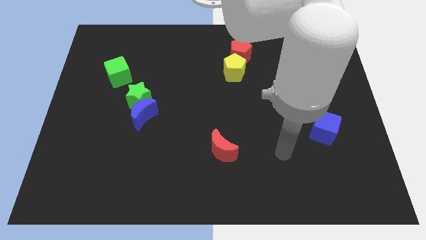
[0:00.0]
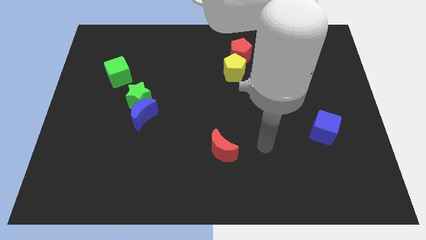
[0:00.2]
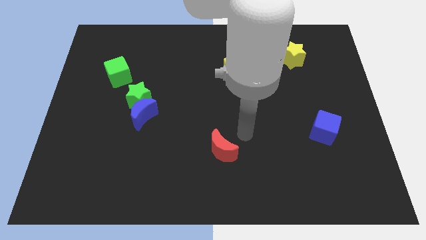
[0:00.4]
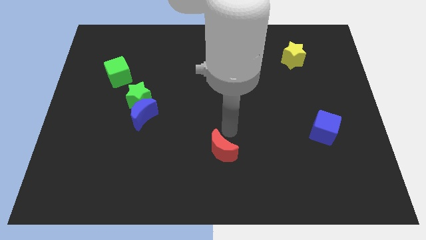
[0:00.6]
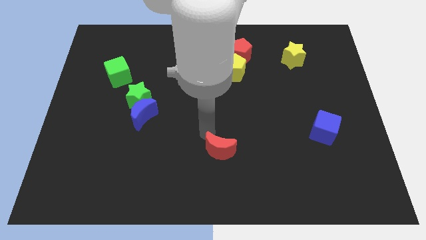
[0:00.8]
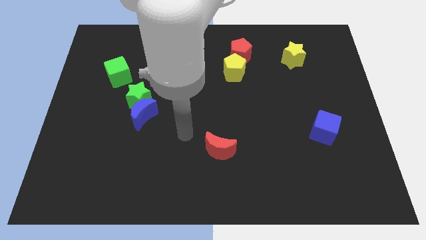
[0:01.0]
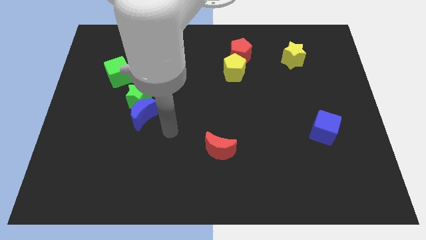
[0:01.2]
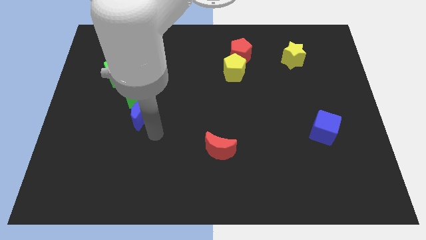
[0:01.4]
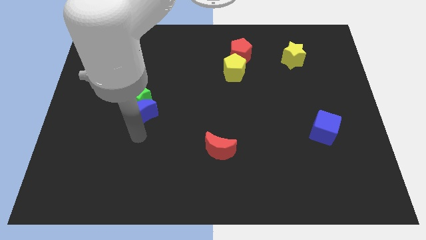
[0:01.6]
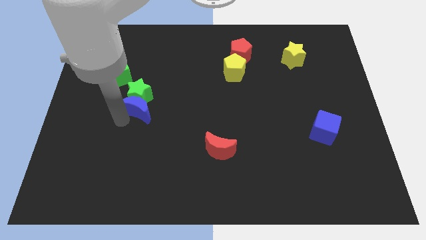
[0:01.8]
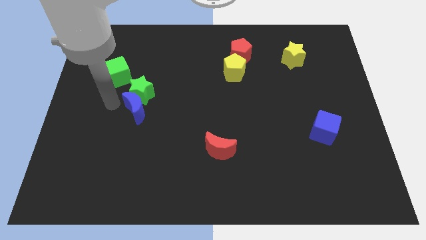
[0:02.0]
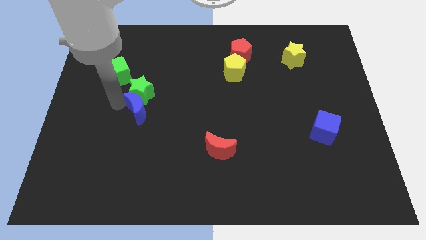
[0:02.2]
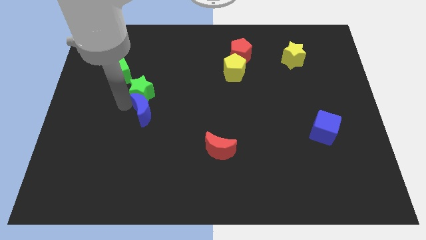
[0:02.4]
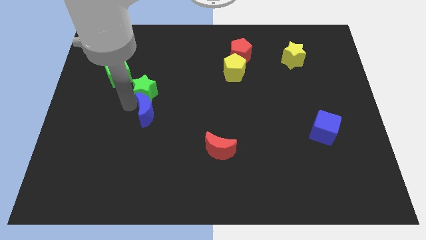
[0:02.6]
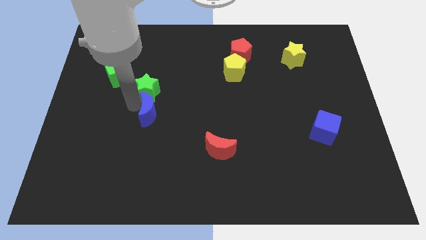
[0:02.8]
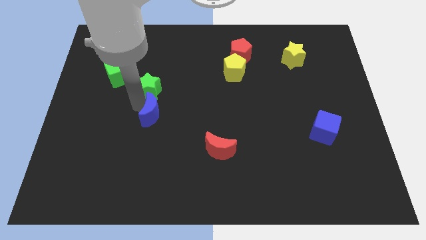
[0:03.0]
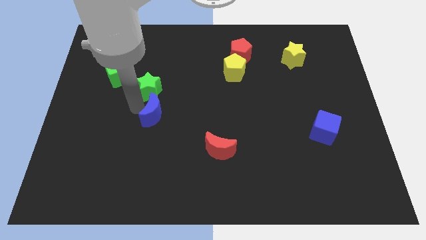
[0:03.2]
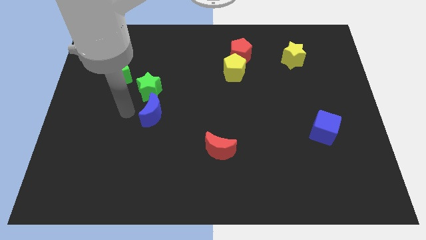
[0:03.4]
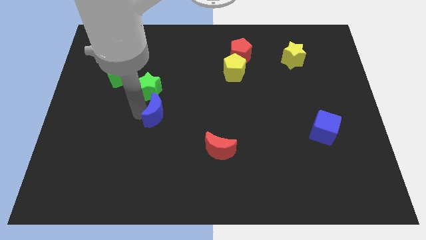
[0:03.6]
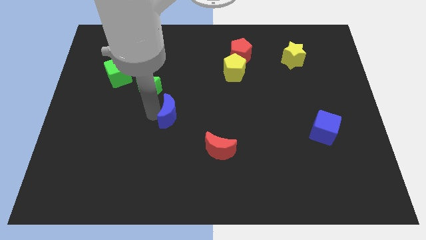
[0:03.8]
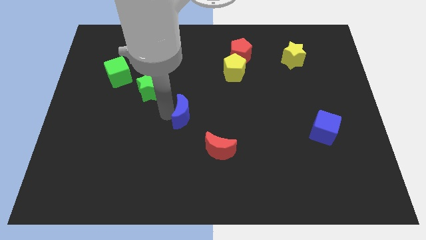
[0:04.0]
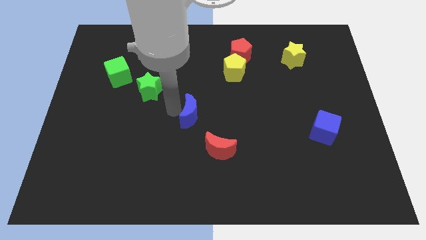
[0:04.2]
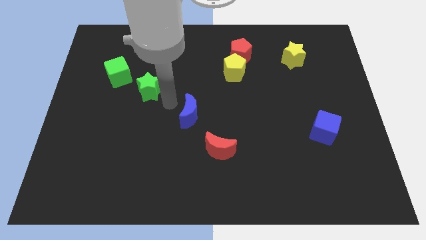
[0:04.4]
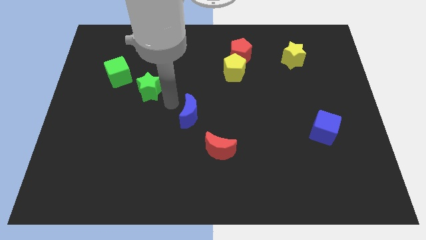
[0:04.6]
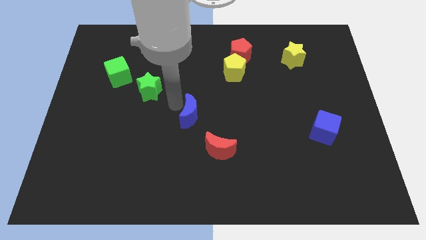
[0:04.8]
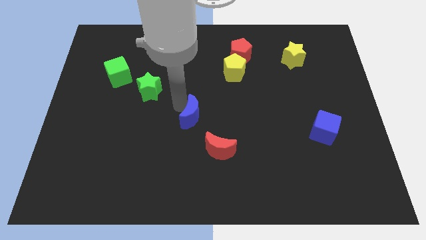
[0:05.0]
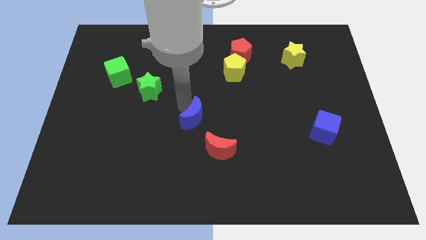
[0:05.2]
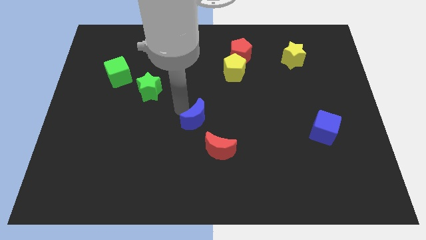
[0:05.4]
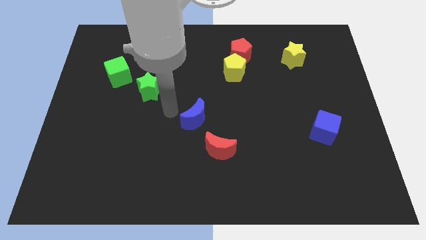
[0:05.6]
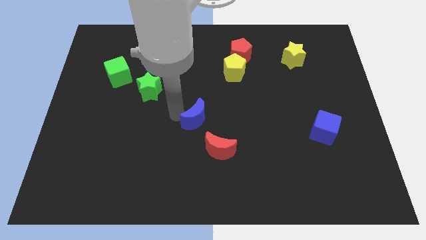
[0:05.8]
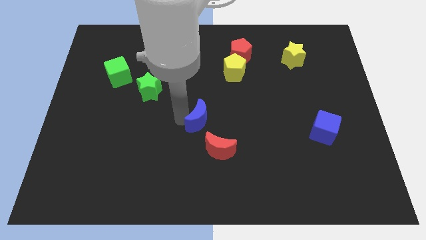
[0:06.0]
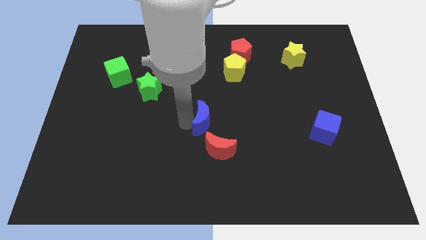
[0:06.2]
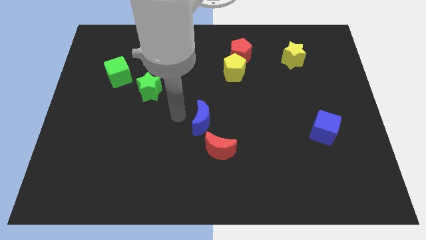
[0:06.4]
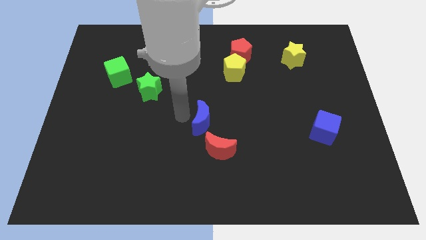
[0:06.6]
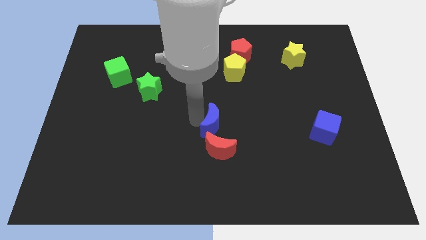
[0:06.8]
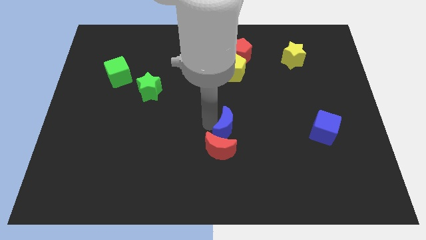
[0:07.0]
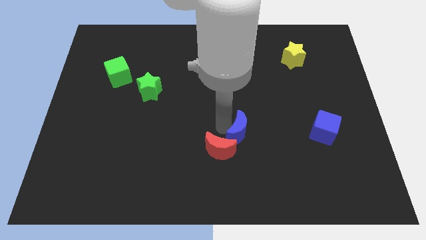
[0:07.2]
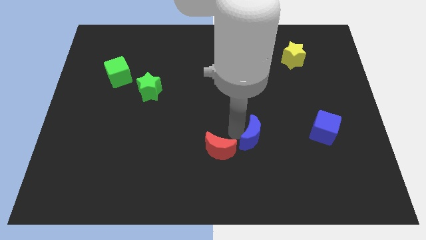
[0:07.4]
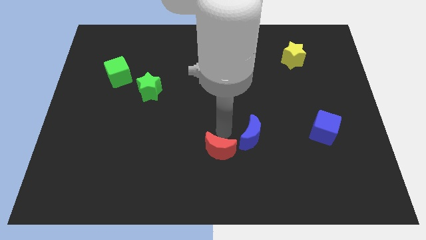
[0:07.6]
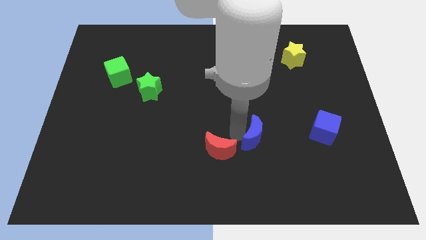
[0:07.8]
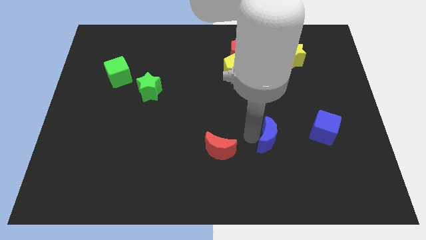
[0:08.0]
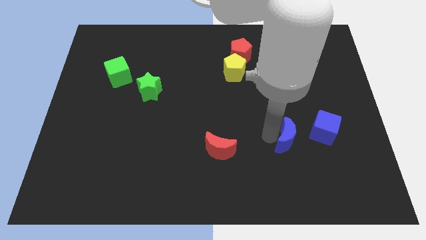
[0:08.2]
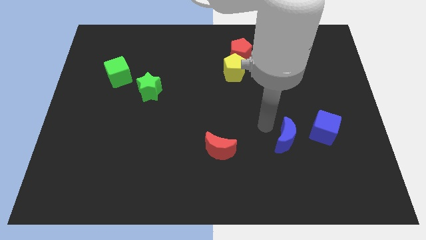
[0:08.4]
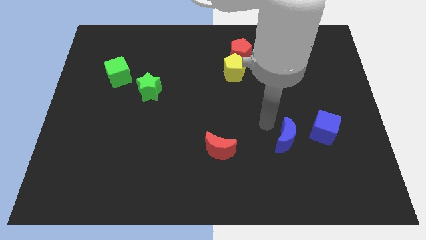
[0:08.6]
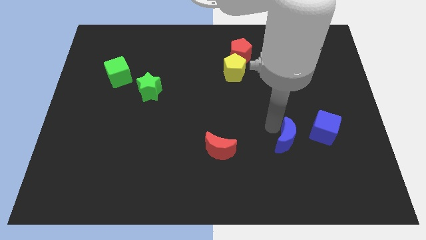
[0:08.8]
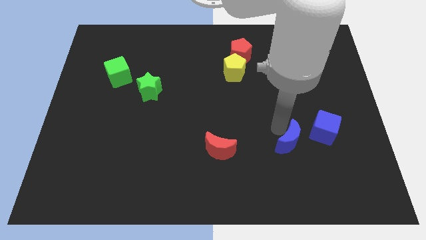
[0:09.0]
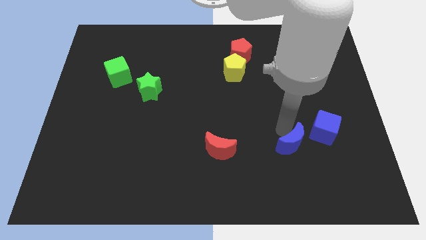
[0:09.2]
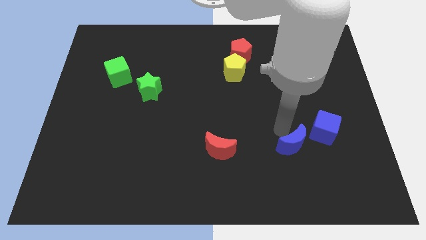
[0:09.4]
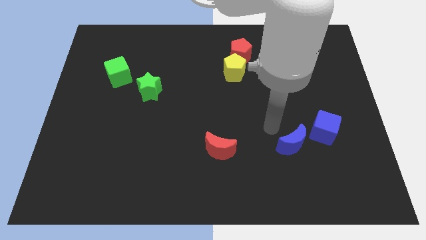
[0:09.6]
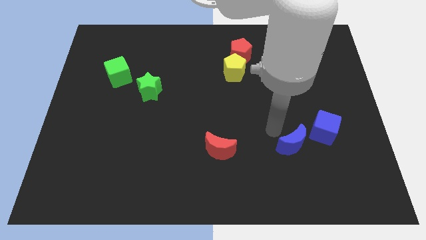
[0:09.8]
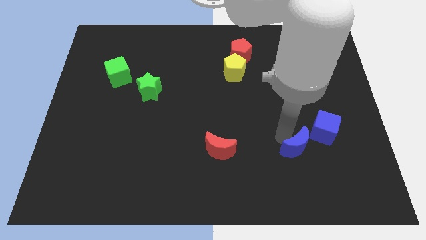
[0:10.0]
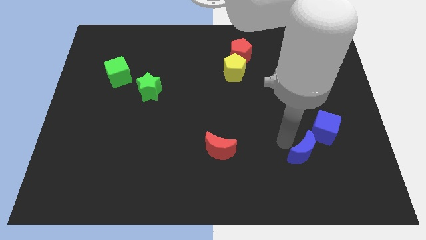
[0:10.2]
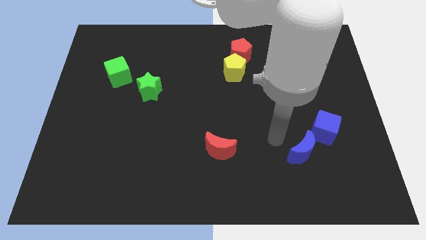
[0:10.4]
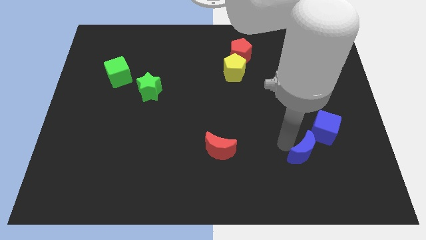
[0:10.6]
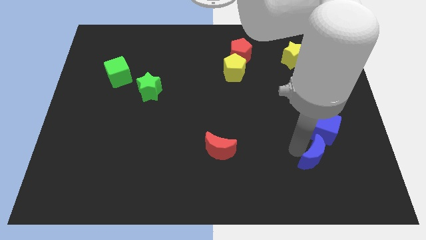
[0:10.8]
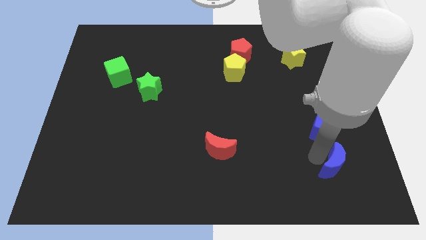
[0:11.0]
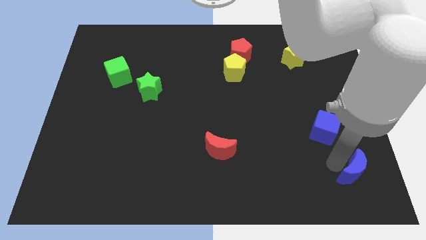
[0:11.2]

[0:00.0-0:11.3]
slide the blue moon to the lower right corner
